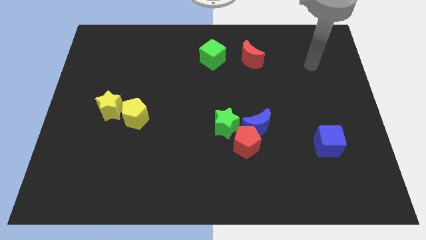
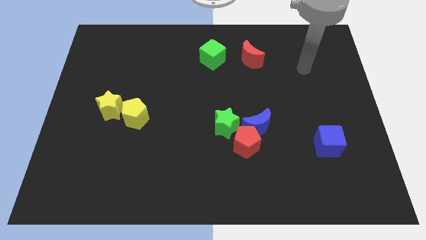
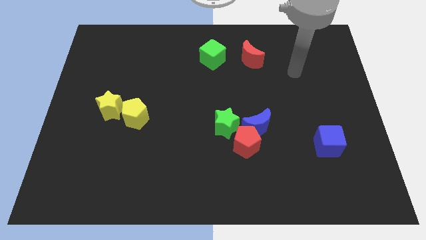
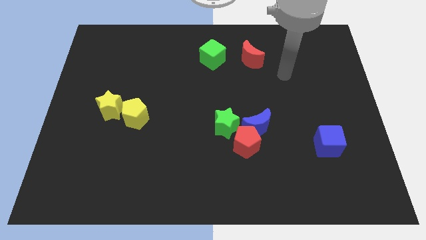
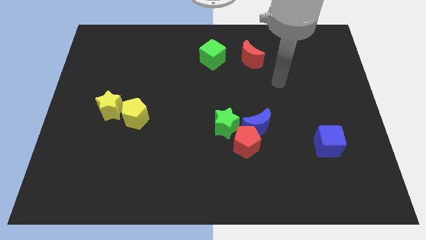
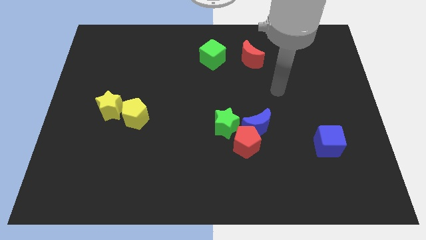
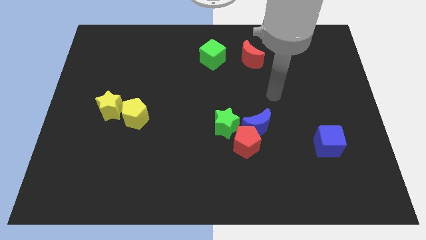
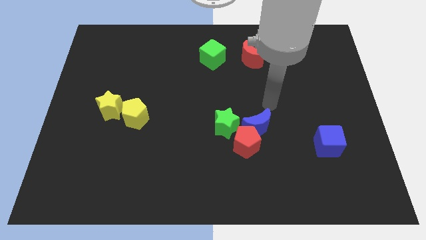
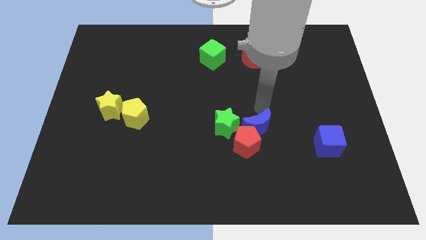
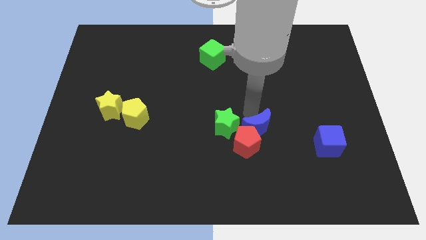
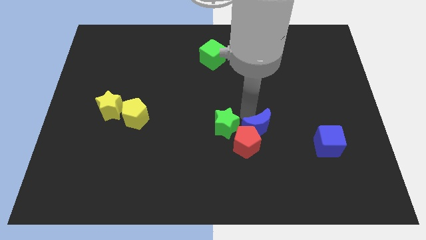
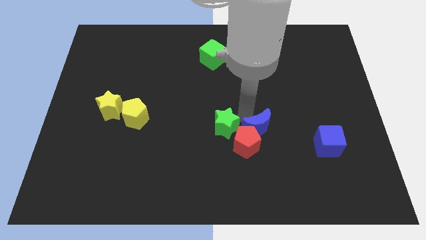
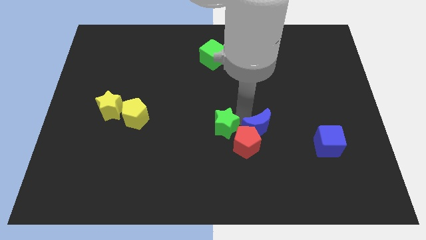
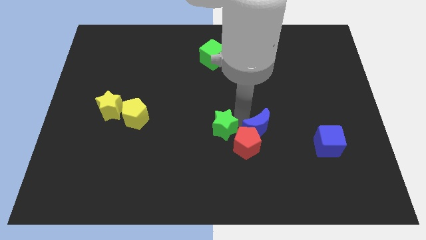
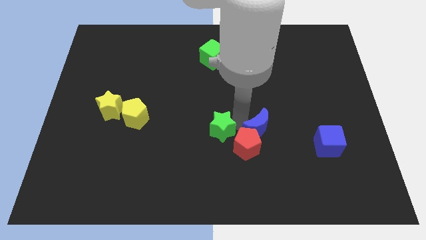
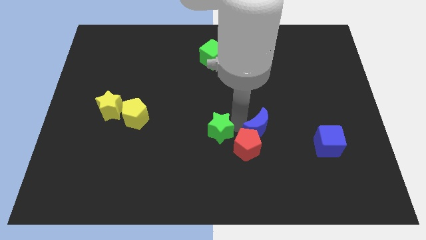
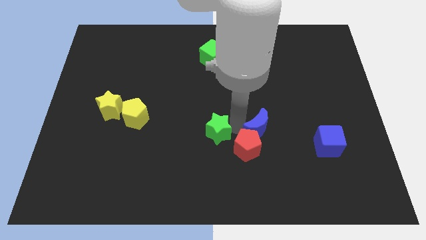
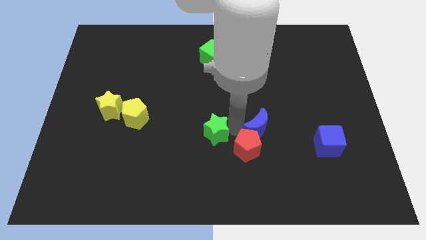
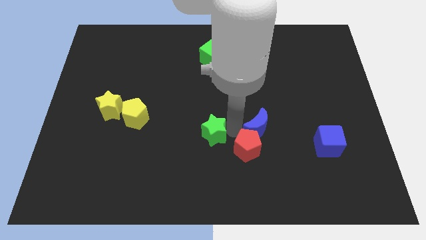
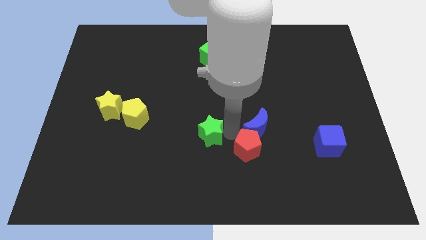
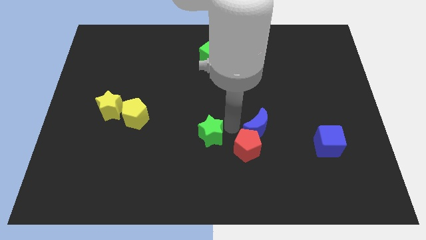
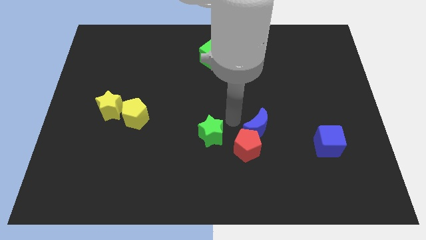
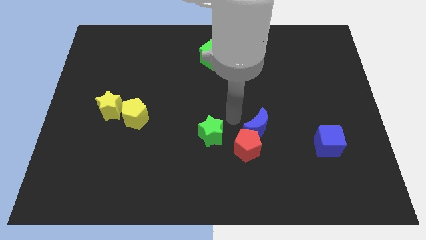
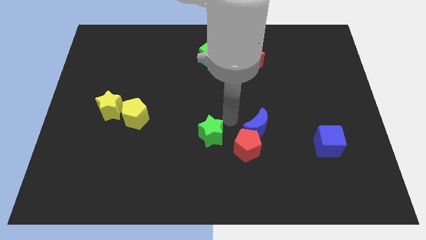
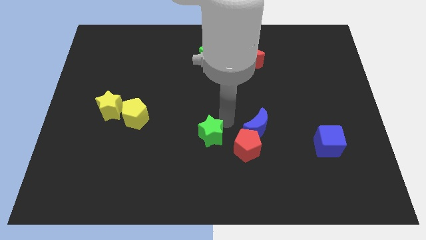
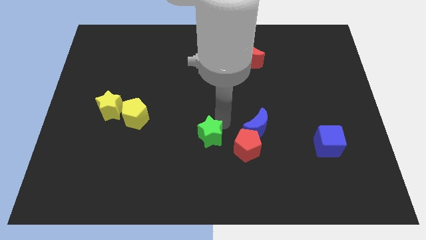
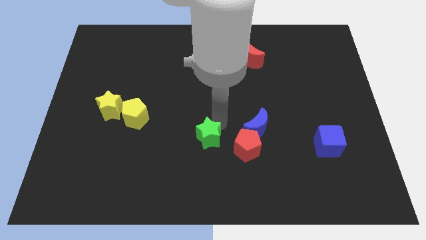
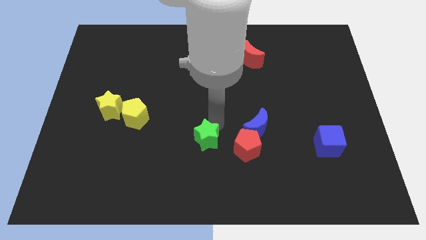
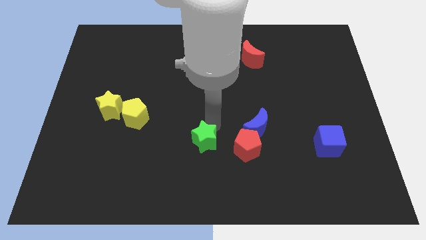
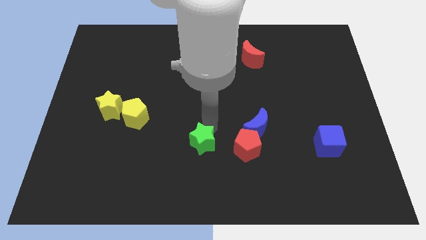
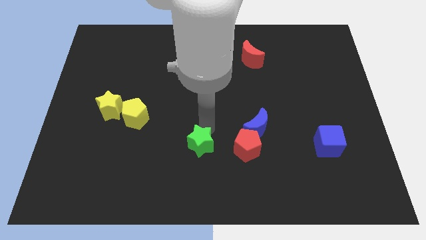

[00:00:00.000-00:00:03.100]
slide the green star somewhat down and to the left

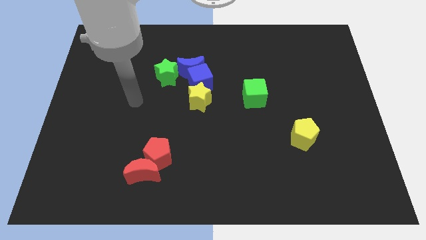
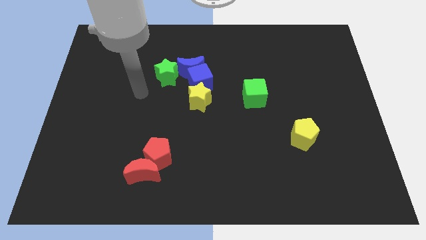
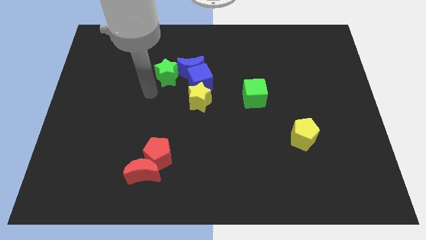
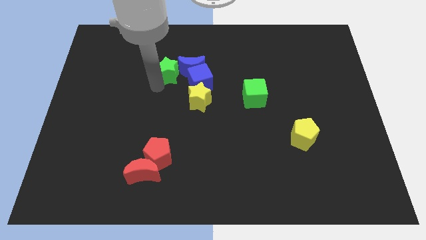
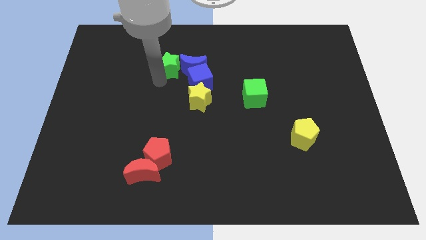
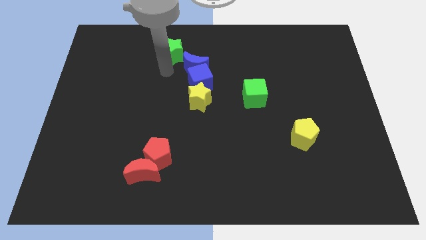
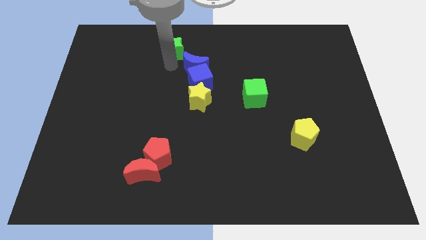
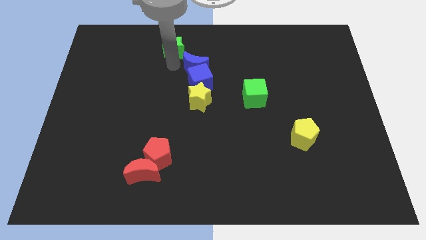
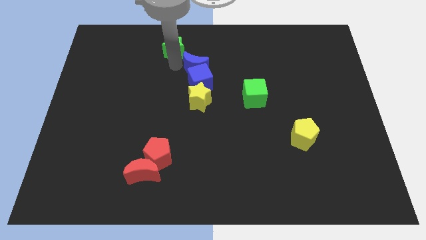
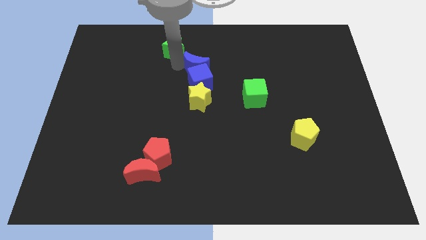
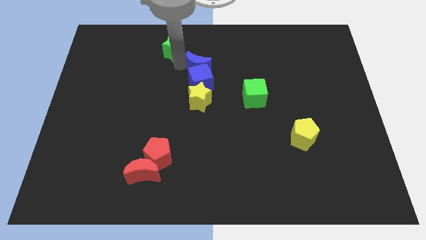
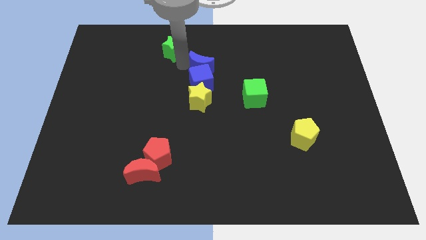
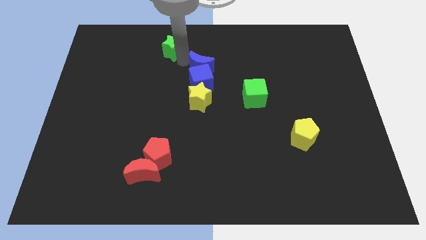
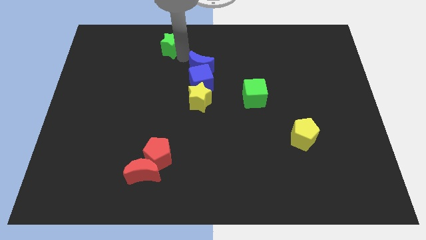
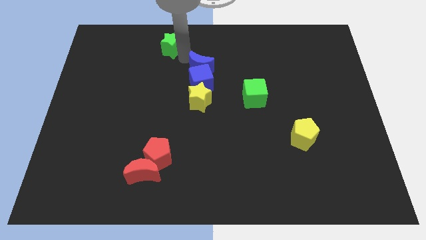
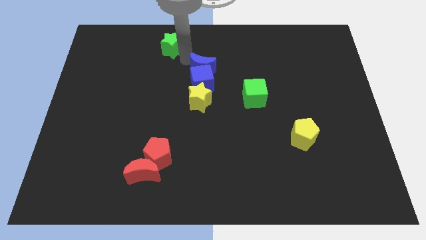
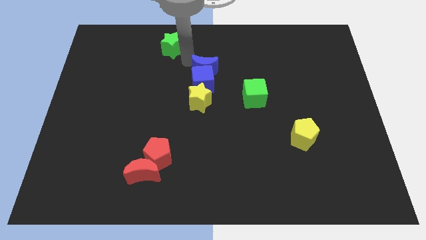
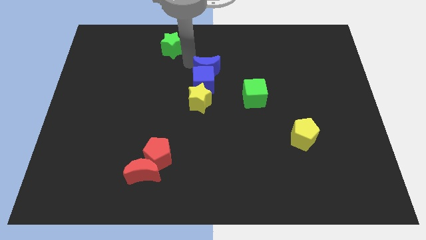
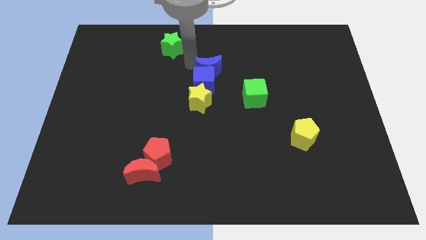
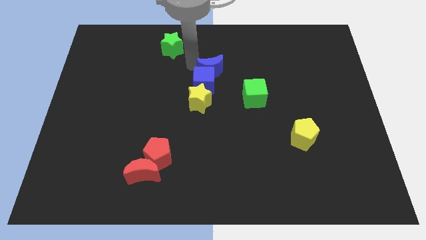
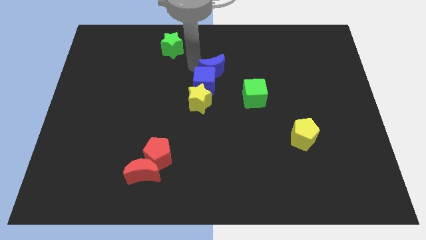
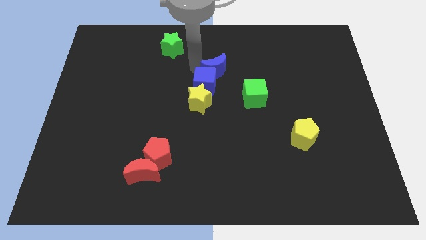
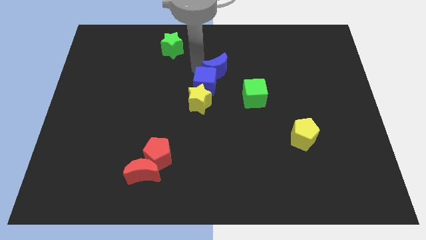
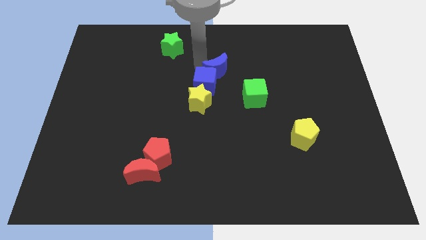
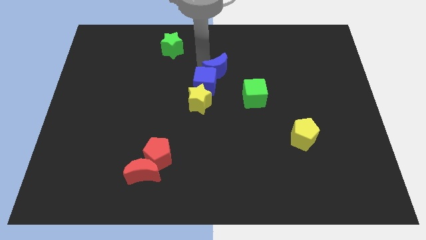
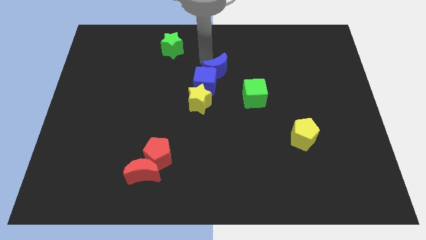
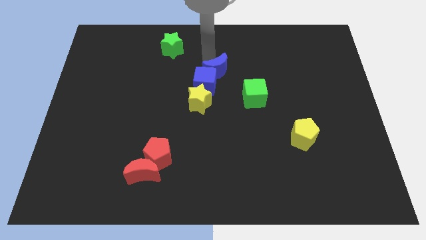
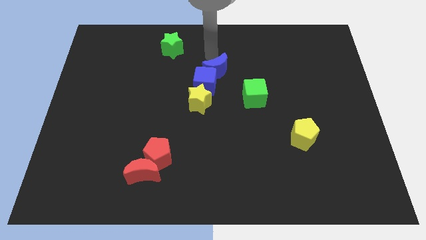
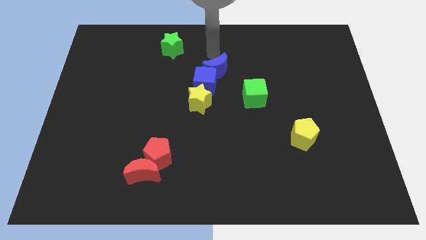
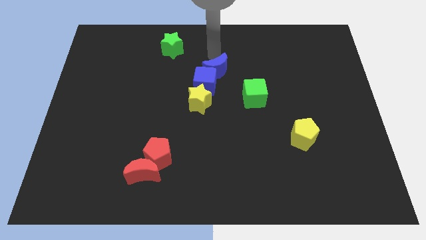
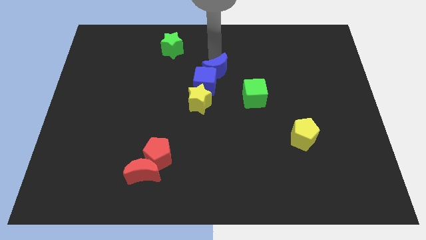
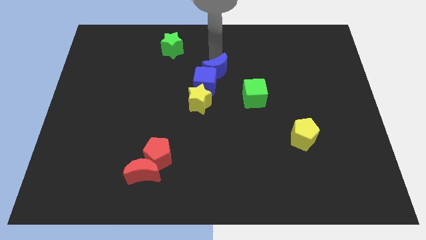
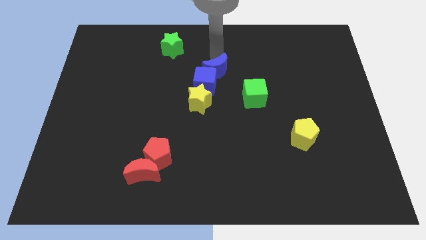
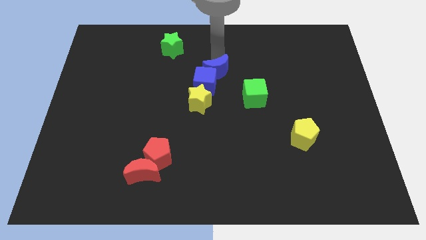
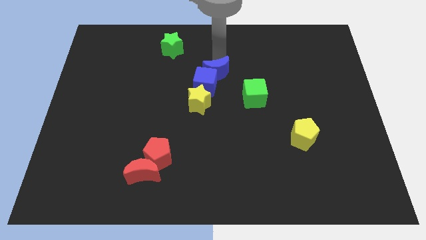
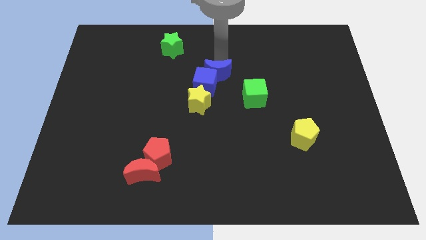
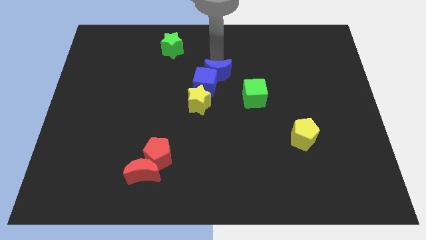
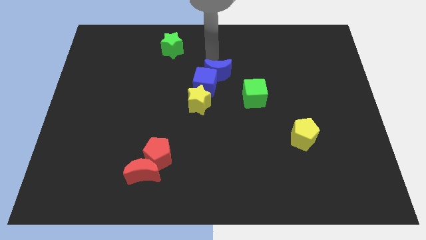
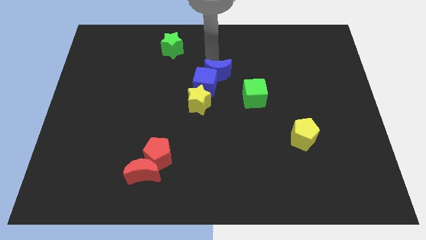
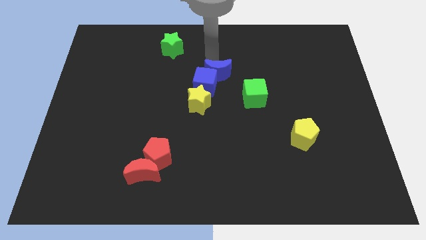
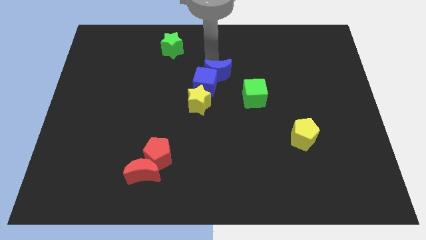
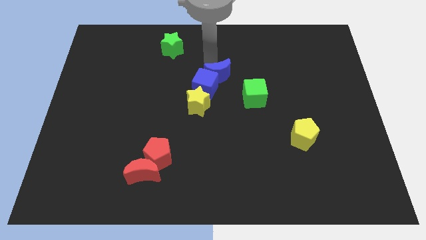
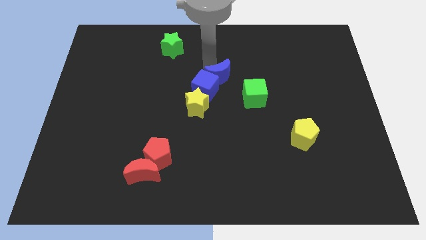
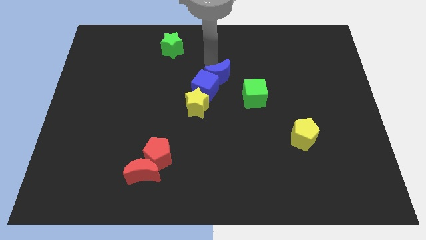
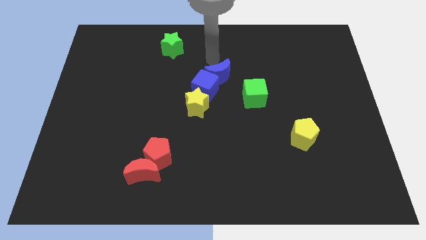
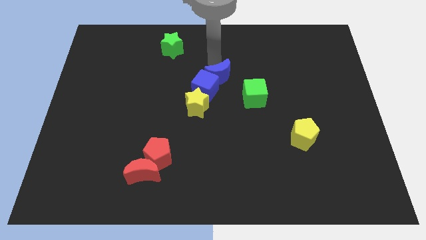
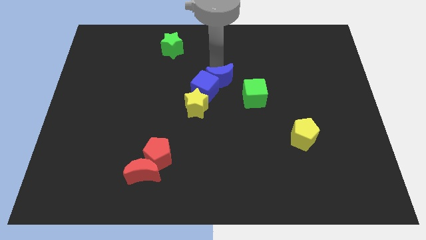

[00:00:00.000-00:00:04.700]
push the blue moon downwards and to the right diagonally slightly
